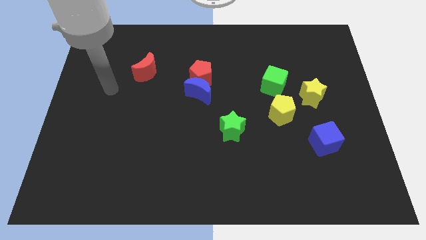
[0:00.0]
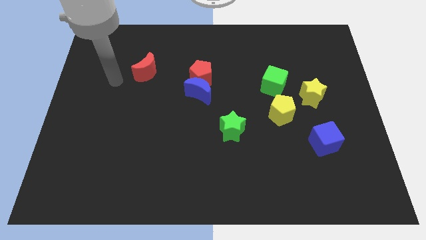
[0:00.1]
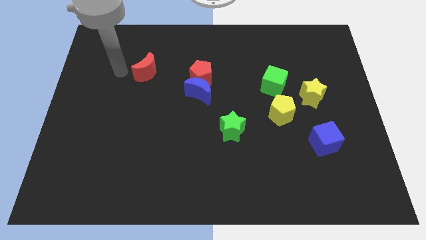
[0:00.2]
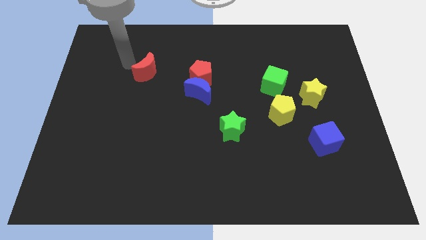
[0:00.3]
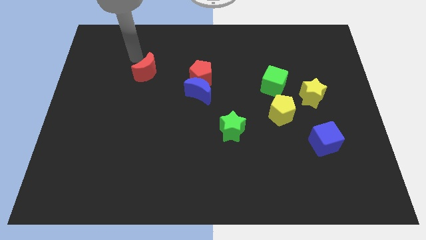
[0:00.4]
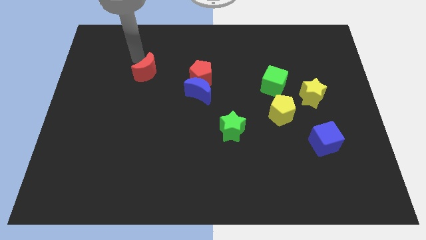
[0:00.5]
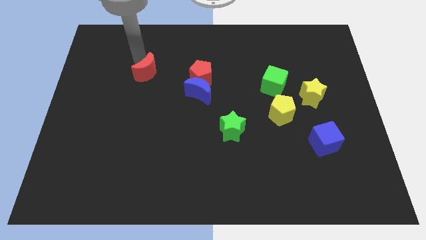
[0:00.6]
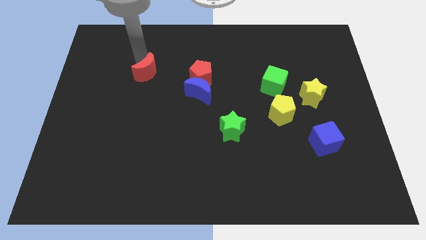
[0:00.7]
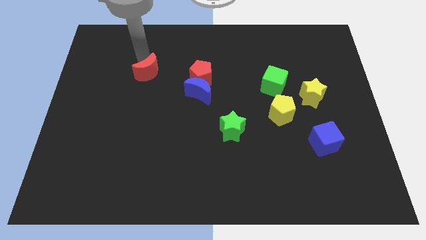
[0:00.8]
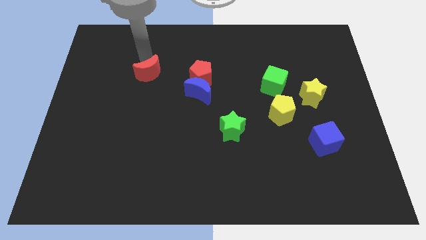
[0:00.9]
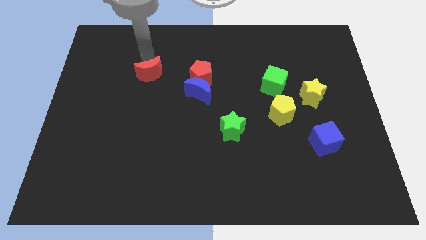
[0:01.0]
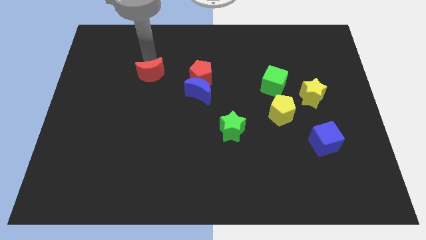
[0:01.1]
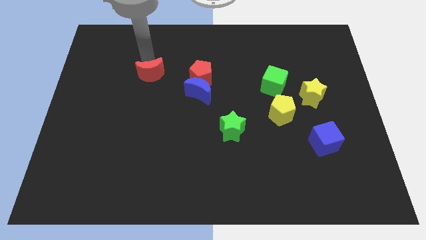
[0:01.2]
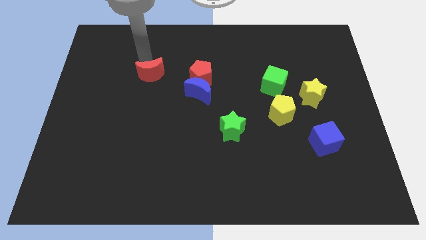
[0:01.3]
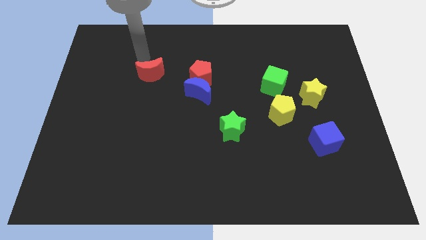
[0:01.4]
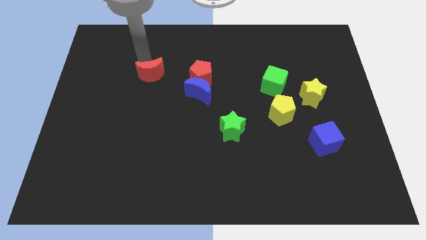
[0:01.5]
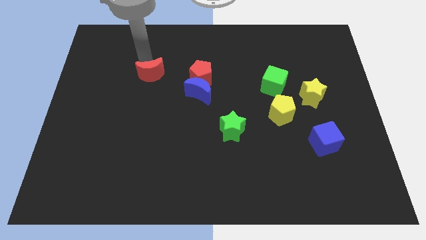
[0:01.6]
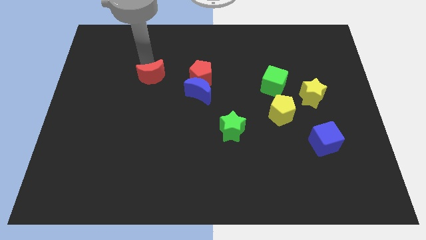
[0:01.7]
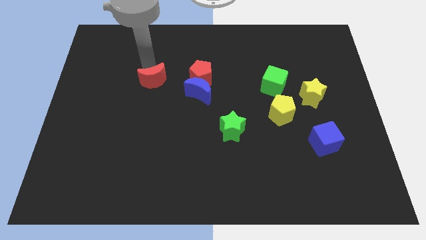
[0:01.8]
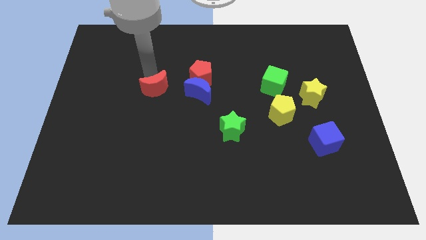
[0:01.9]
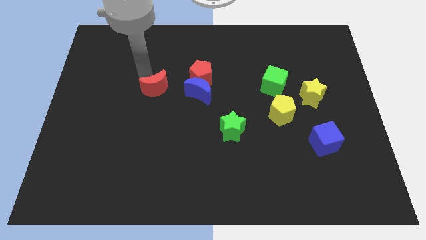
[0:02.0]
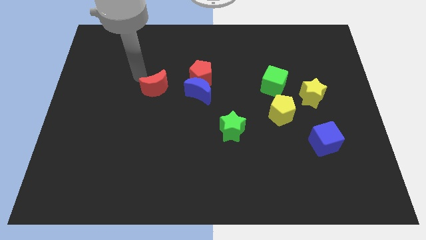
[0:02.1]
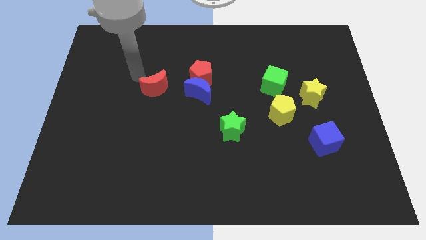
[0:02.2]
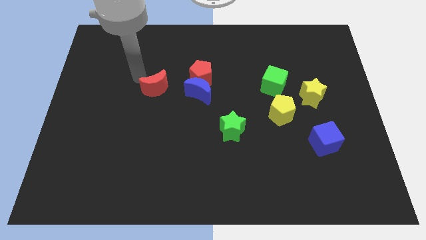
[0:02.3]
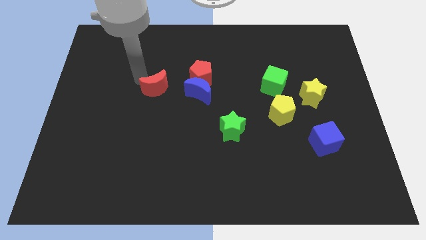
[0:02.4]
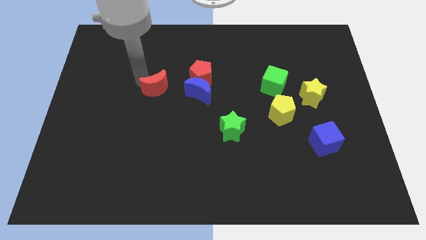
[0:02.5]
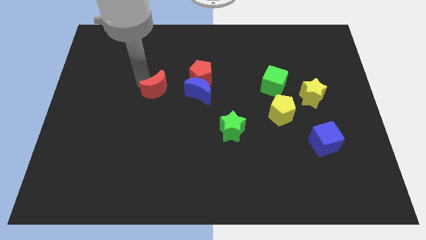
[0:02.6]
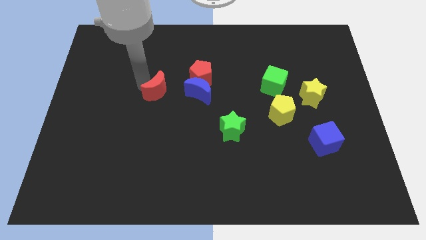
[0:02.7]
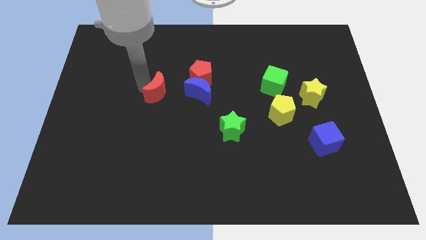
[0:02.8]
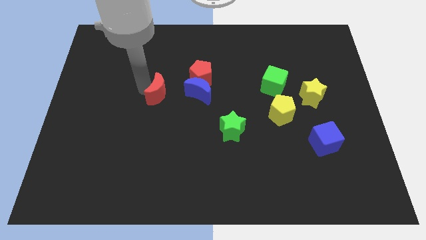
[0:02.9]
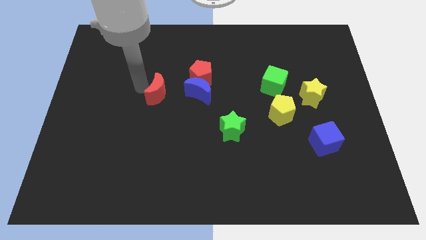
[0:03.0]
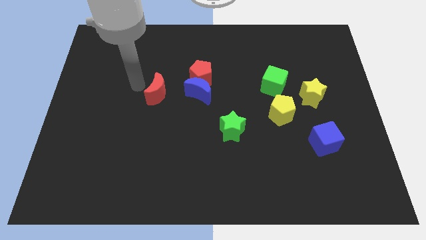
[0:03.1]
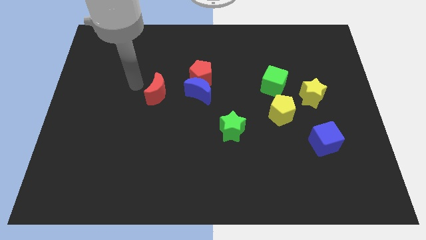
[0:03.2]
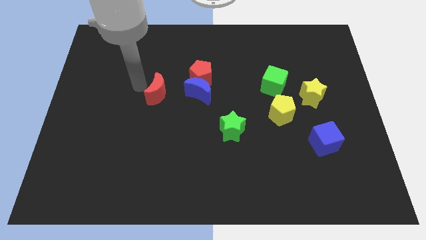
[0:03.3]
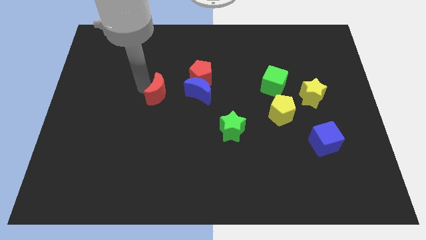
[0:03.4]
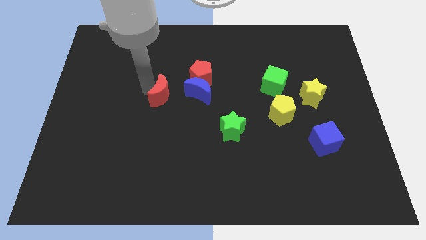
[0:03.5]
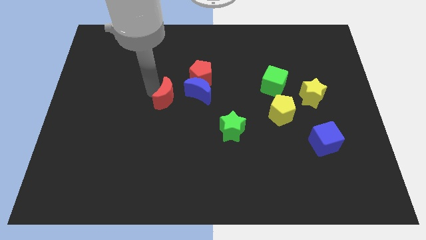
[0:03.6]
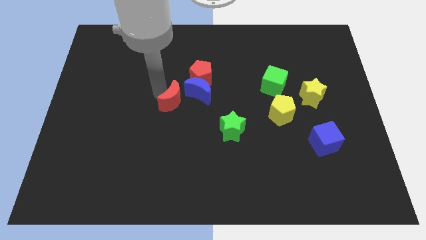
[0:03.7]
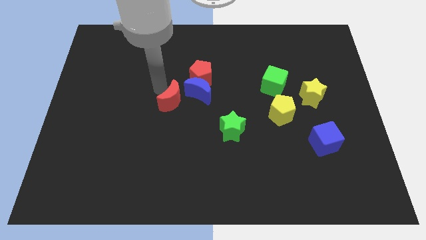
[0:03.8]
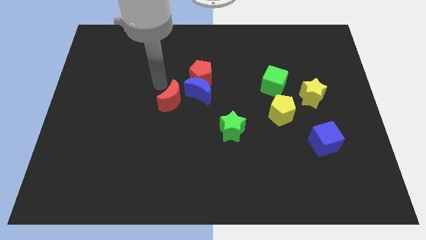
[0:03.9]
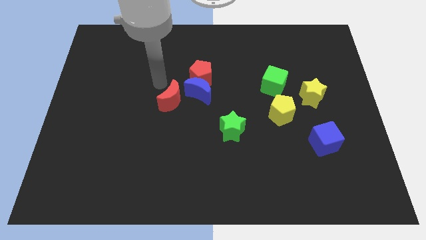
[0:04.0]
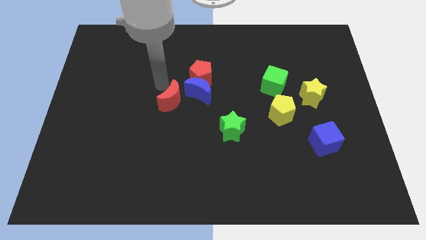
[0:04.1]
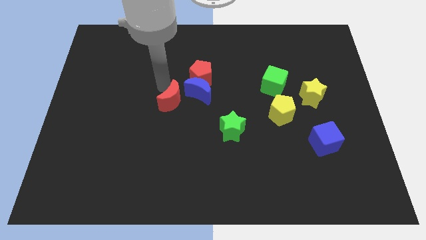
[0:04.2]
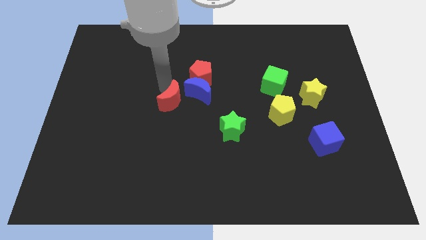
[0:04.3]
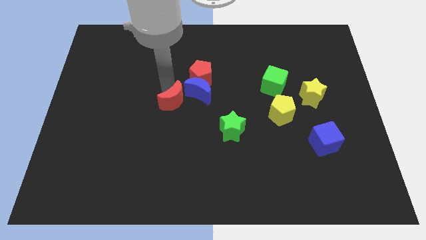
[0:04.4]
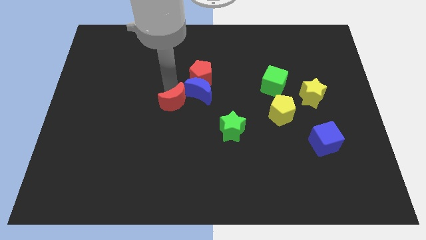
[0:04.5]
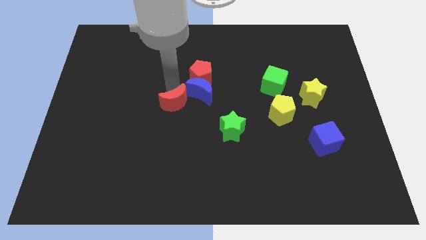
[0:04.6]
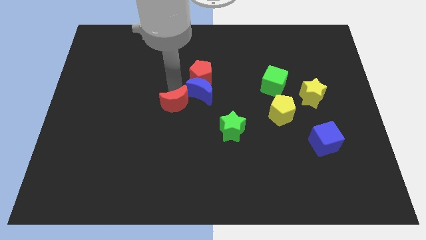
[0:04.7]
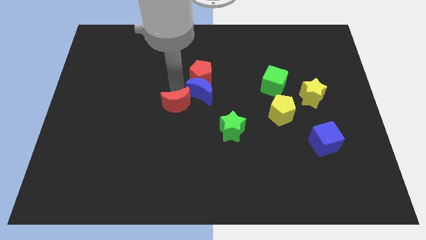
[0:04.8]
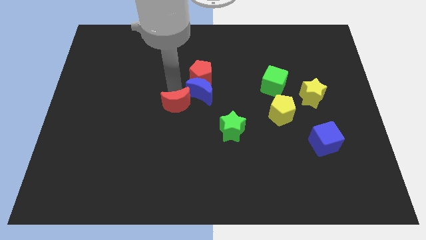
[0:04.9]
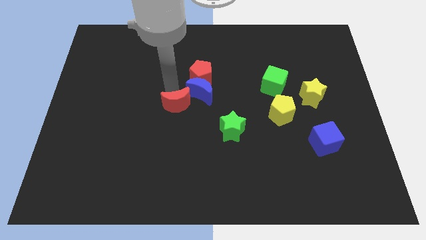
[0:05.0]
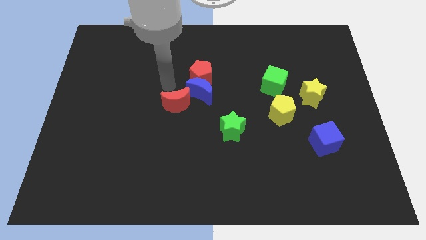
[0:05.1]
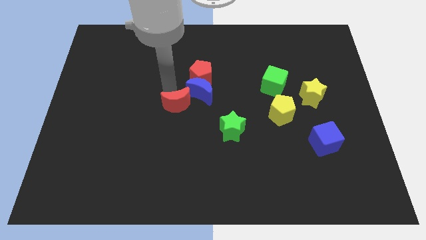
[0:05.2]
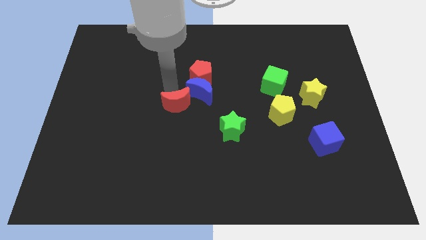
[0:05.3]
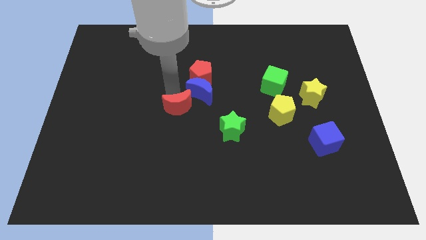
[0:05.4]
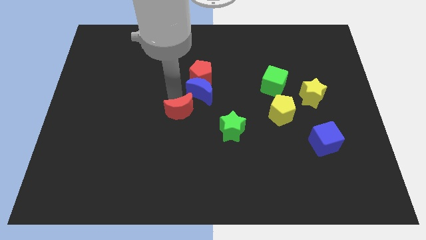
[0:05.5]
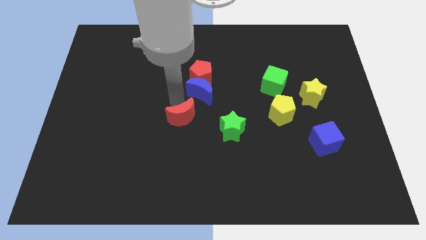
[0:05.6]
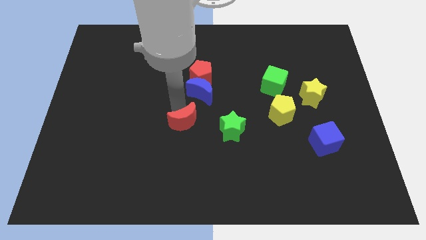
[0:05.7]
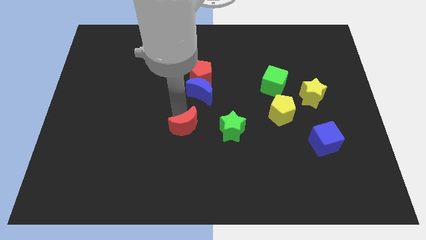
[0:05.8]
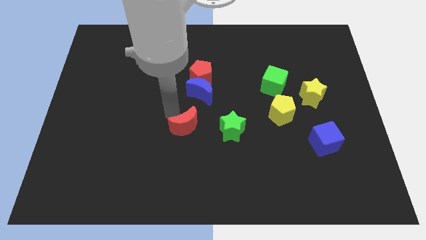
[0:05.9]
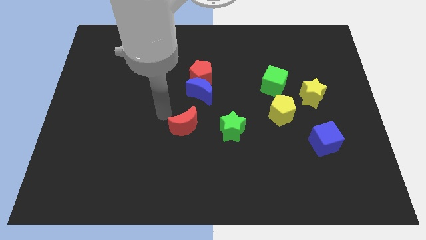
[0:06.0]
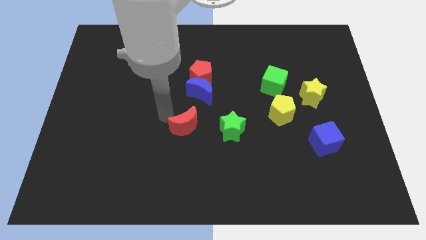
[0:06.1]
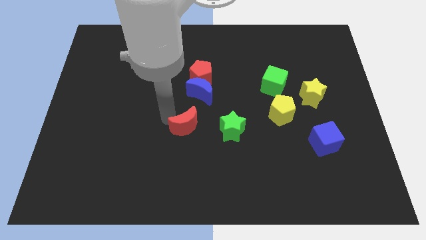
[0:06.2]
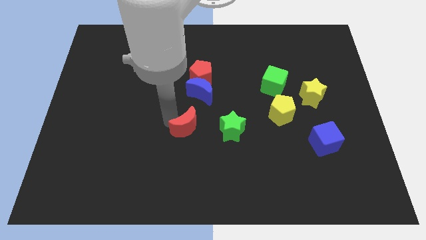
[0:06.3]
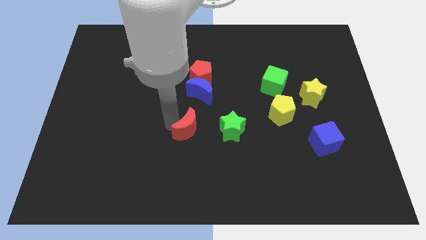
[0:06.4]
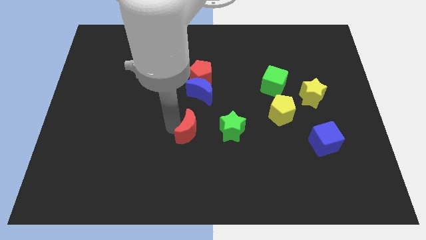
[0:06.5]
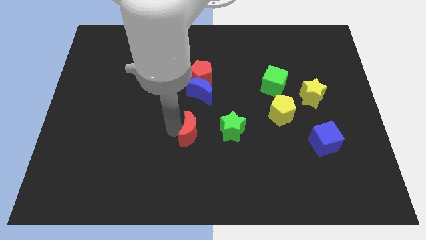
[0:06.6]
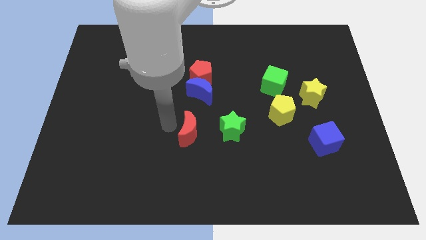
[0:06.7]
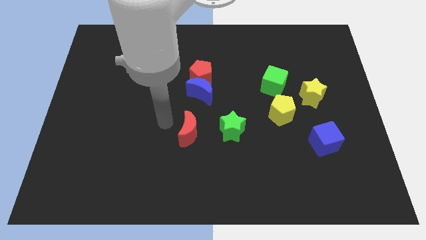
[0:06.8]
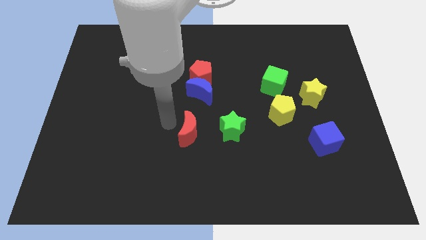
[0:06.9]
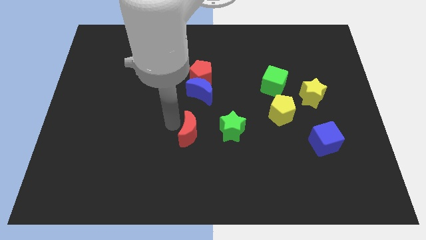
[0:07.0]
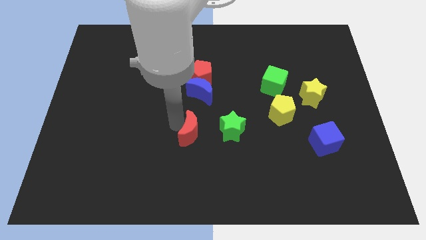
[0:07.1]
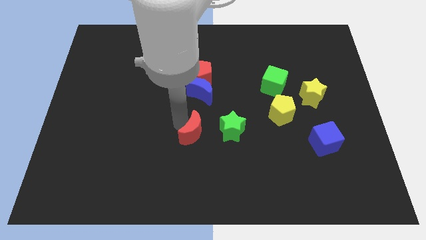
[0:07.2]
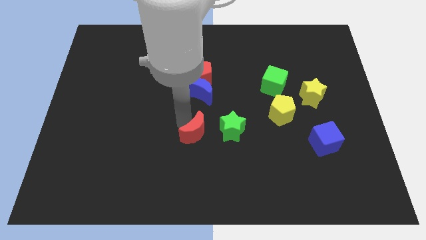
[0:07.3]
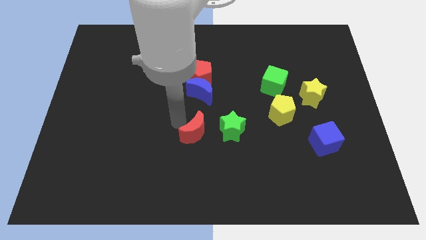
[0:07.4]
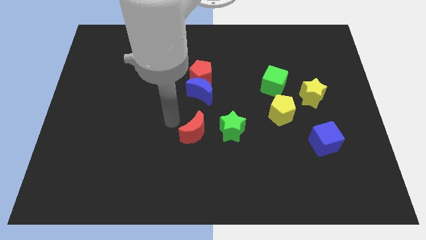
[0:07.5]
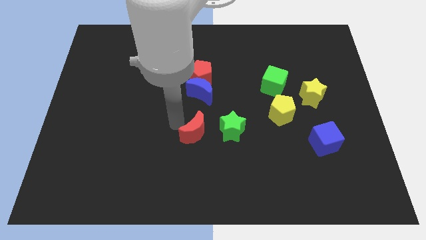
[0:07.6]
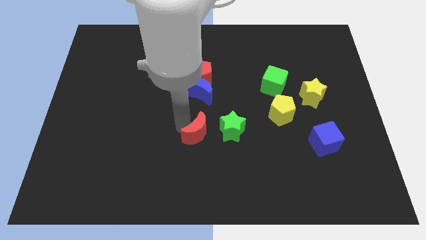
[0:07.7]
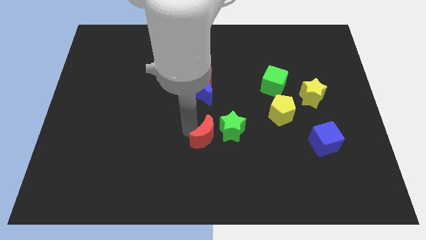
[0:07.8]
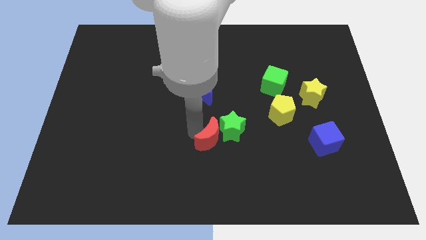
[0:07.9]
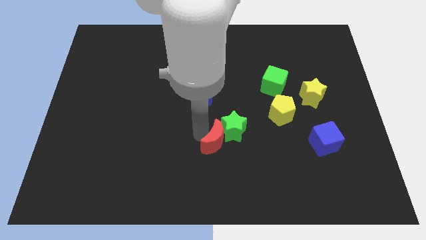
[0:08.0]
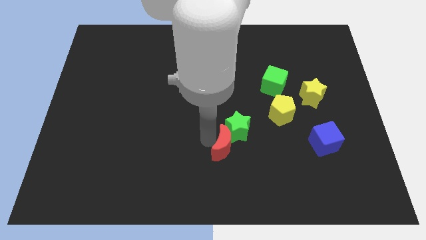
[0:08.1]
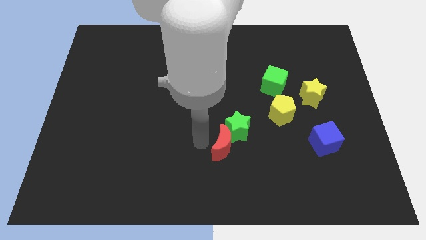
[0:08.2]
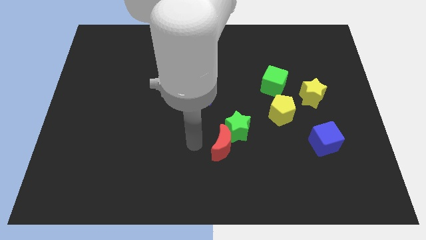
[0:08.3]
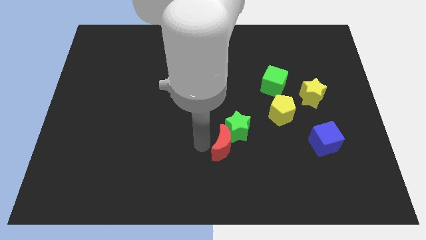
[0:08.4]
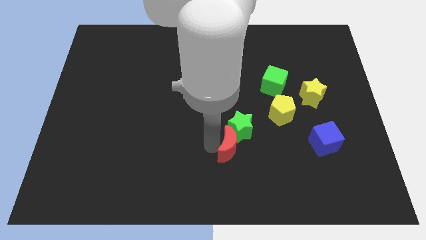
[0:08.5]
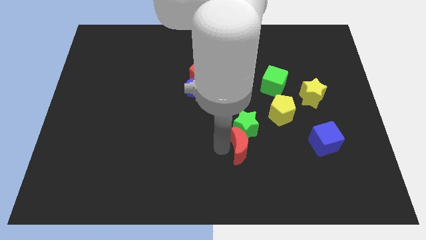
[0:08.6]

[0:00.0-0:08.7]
put the red moon to the bottom right of the green star
